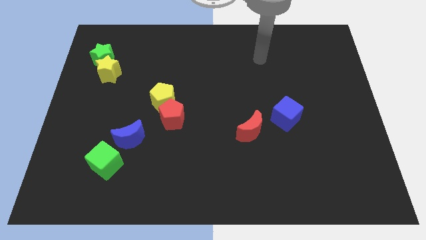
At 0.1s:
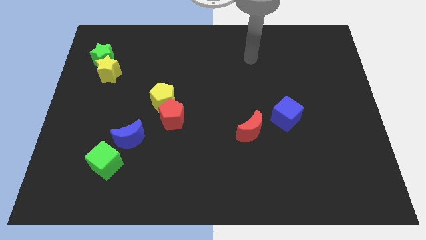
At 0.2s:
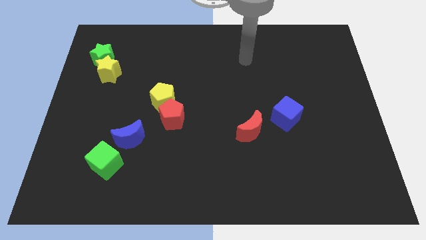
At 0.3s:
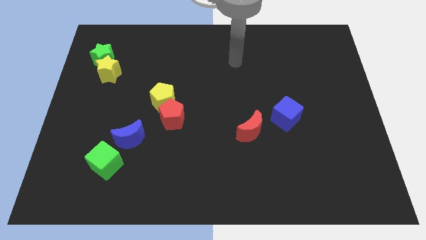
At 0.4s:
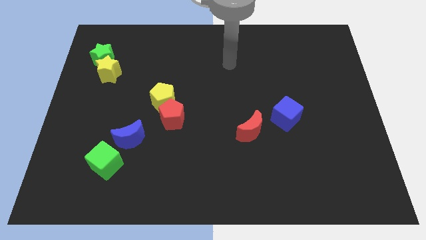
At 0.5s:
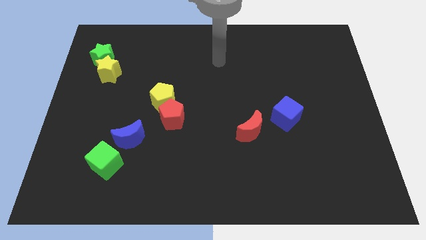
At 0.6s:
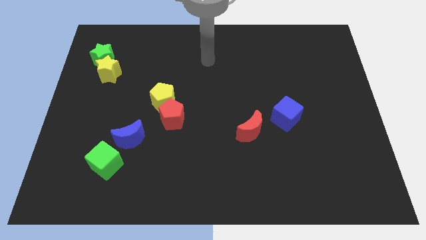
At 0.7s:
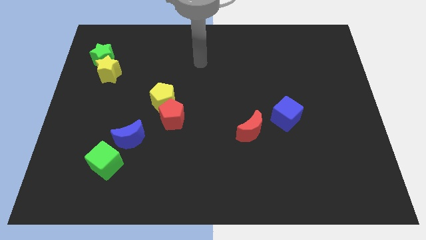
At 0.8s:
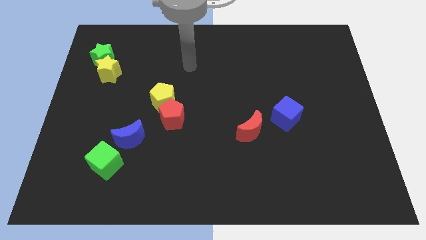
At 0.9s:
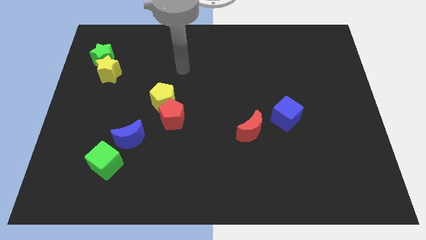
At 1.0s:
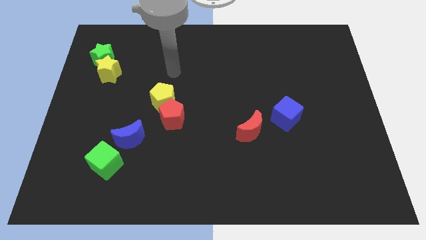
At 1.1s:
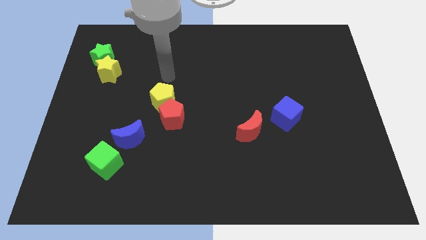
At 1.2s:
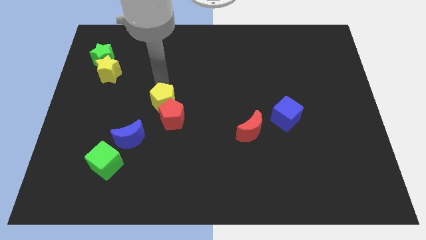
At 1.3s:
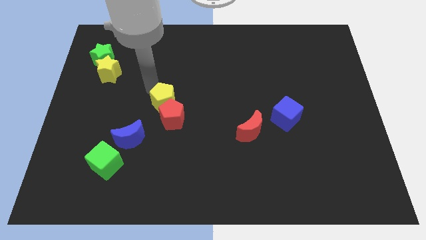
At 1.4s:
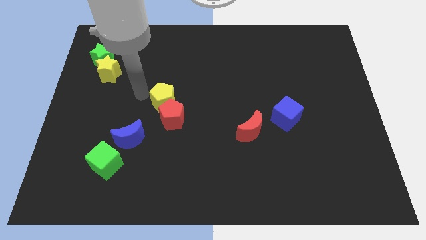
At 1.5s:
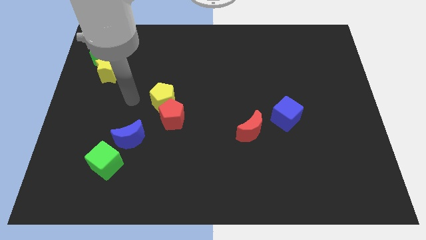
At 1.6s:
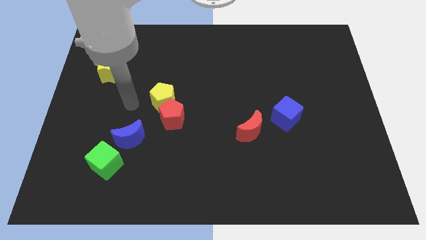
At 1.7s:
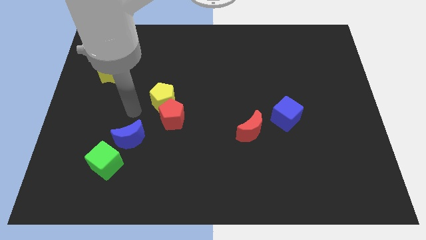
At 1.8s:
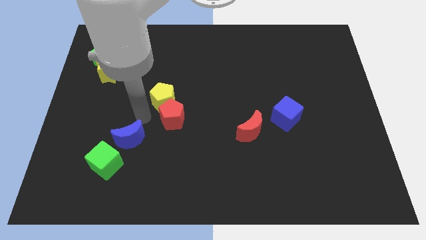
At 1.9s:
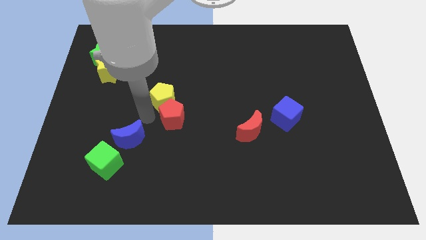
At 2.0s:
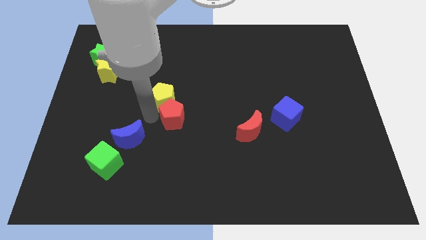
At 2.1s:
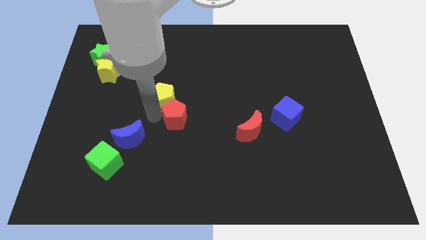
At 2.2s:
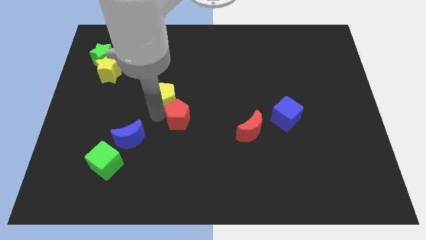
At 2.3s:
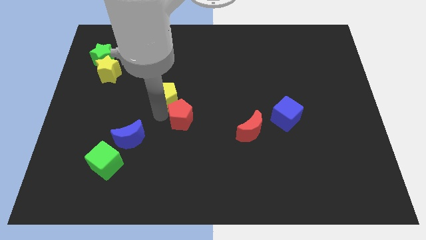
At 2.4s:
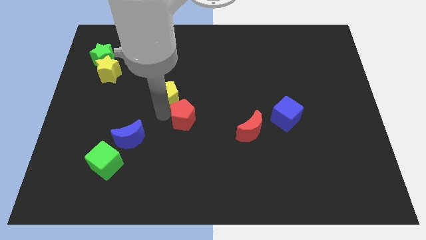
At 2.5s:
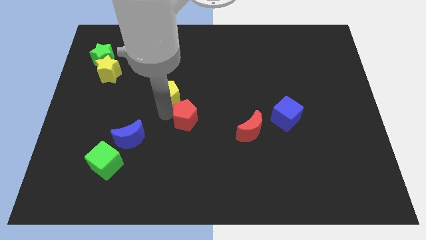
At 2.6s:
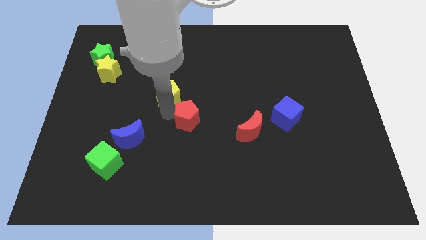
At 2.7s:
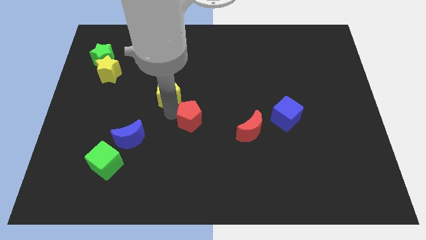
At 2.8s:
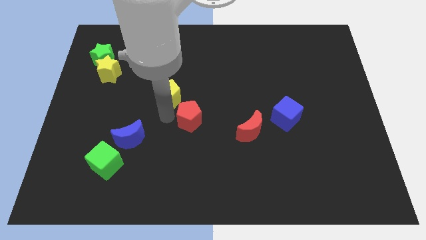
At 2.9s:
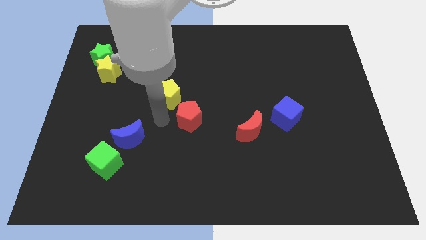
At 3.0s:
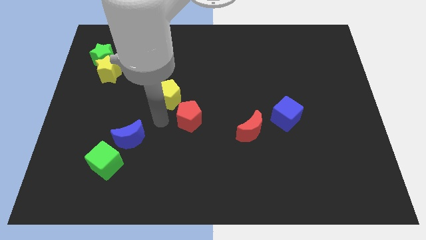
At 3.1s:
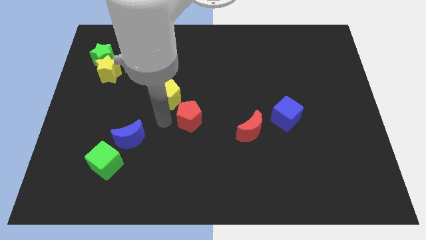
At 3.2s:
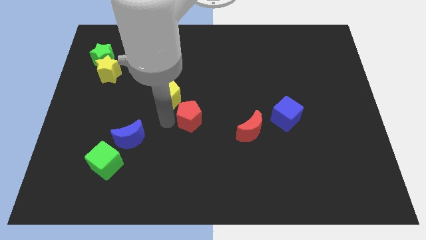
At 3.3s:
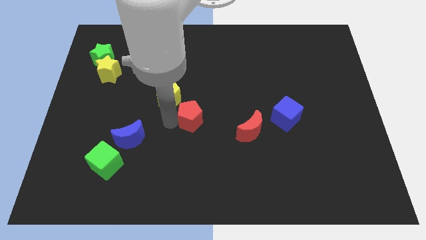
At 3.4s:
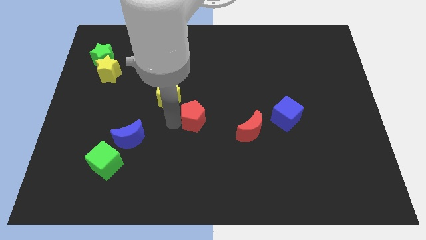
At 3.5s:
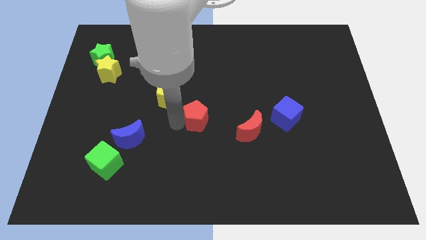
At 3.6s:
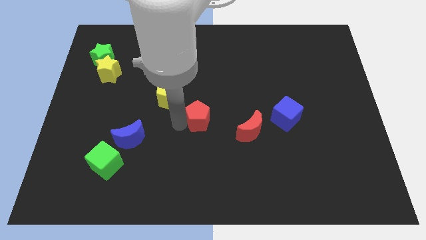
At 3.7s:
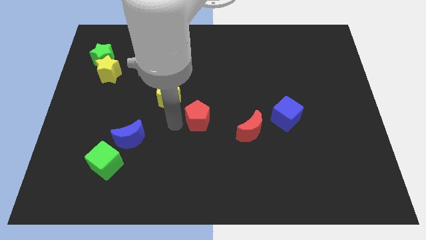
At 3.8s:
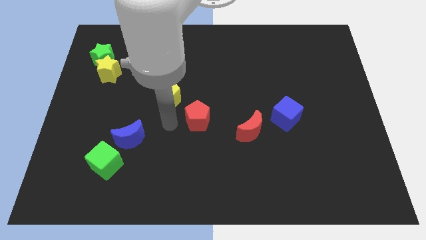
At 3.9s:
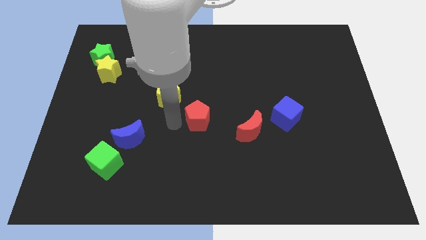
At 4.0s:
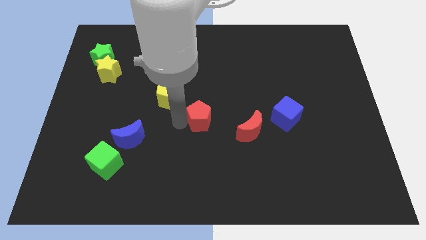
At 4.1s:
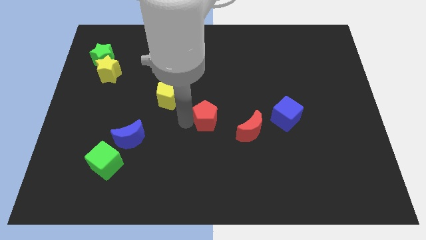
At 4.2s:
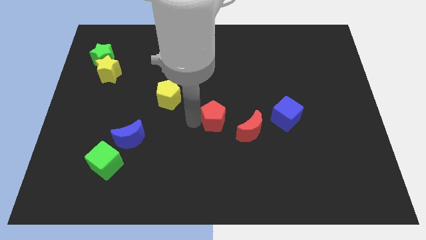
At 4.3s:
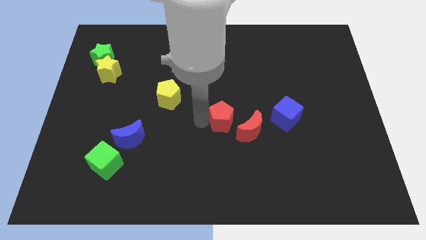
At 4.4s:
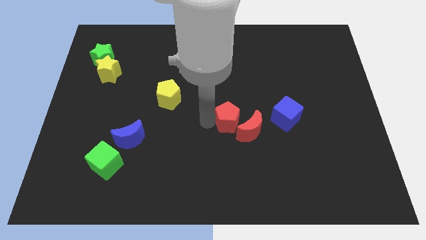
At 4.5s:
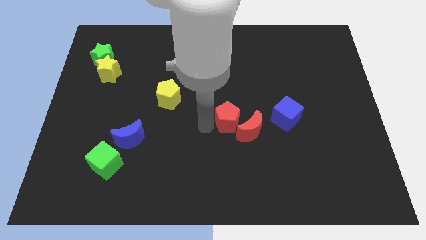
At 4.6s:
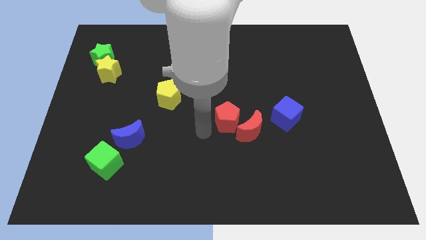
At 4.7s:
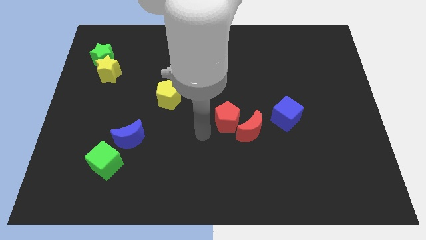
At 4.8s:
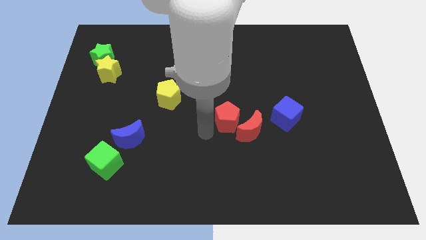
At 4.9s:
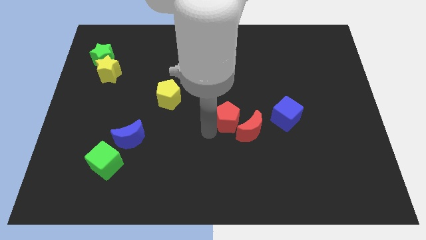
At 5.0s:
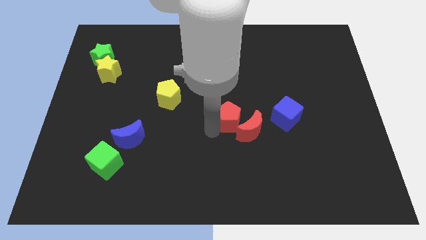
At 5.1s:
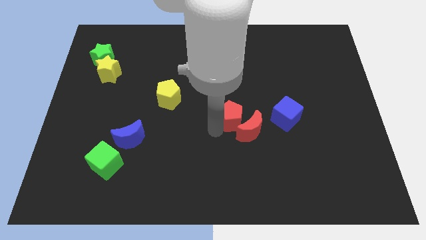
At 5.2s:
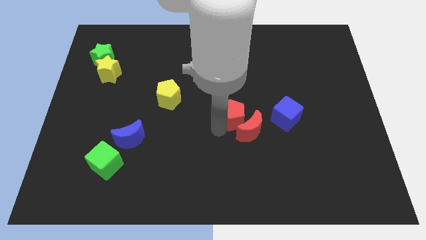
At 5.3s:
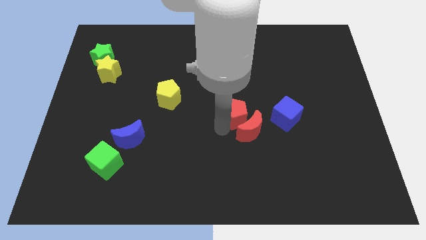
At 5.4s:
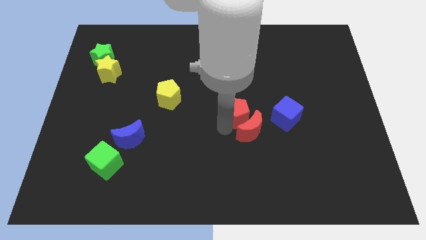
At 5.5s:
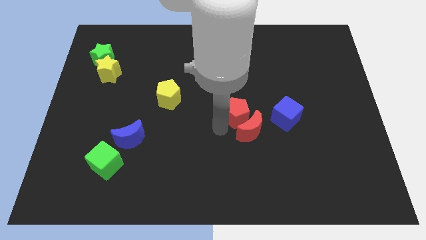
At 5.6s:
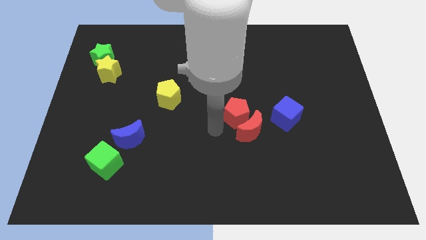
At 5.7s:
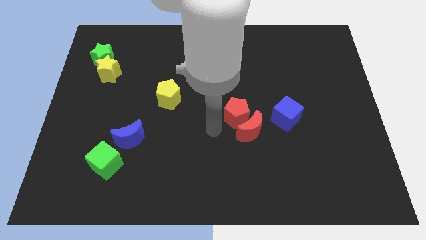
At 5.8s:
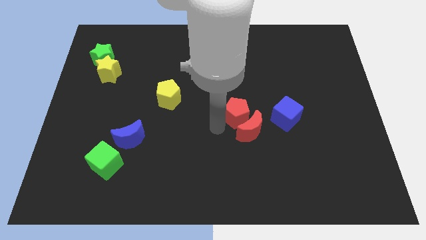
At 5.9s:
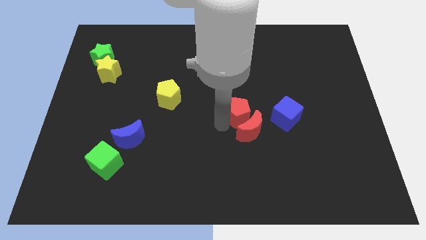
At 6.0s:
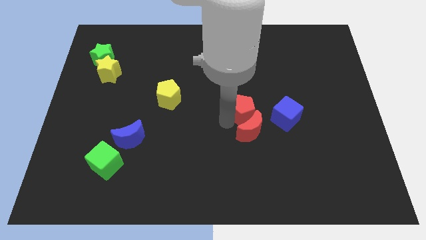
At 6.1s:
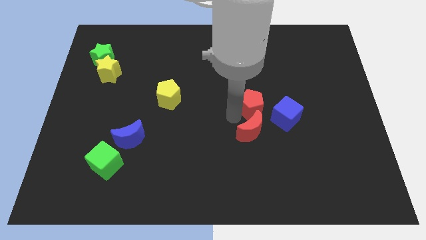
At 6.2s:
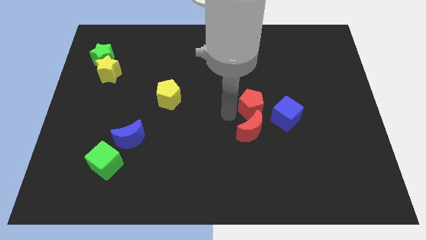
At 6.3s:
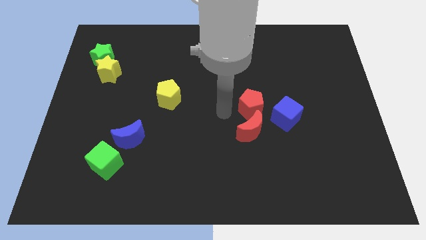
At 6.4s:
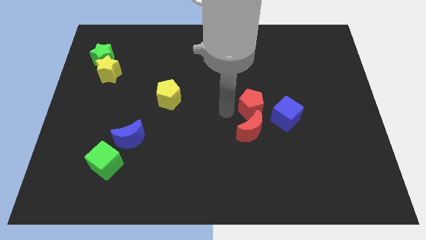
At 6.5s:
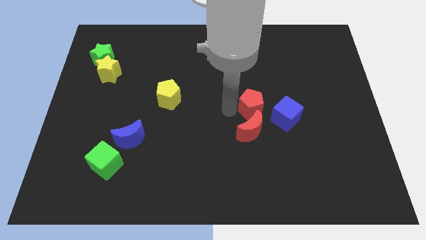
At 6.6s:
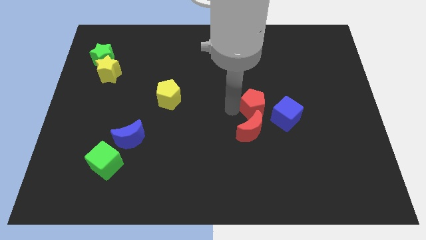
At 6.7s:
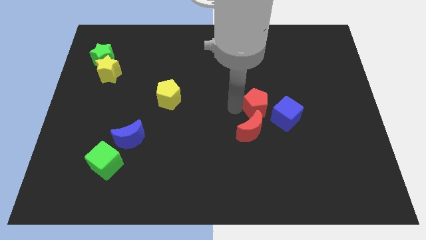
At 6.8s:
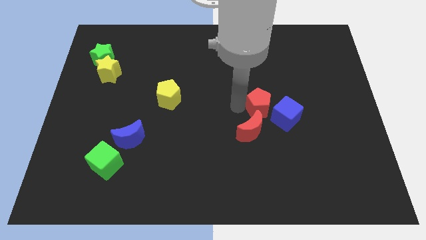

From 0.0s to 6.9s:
move the red pentagon to the right

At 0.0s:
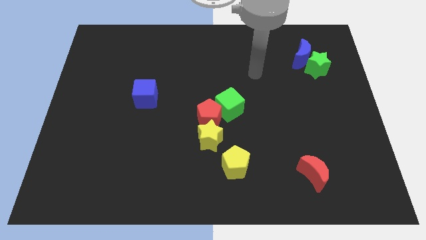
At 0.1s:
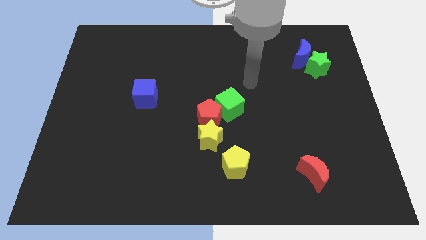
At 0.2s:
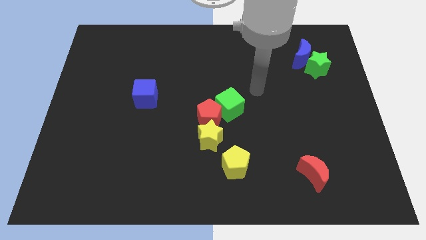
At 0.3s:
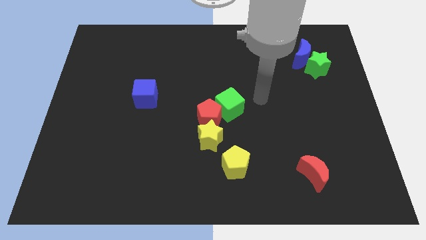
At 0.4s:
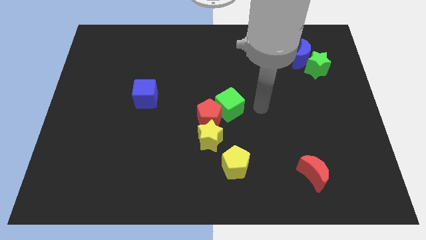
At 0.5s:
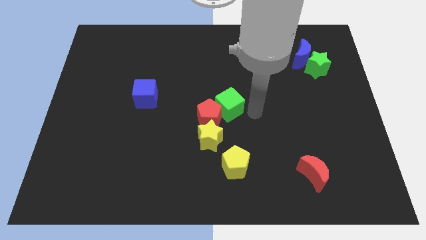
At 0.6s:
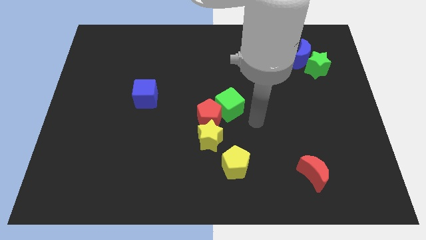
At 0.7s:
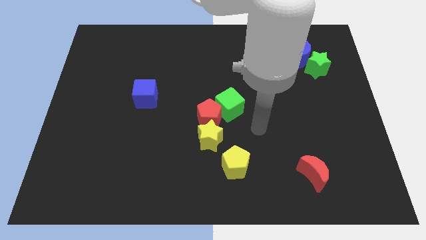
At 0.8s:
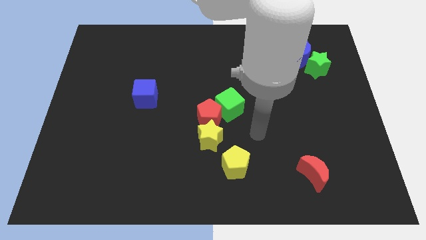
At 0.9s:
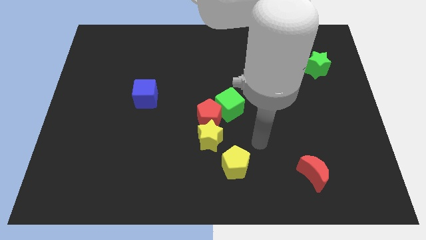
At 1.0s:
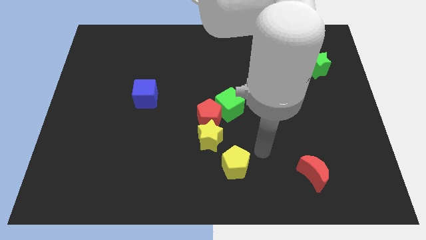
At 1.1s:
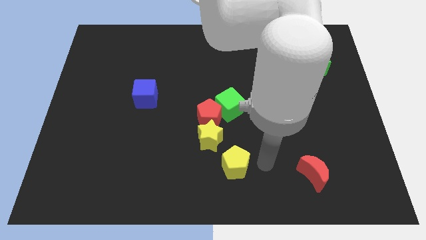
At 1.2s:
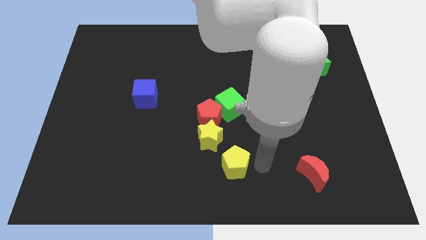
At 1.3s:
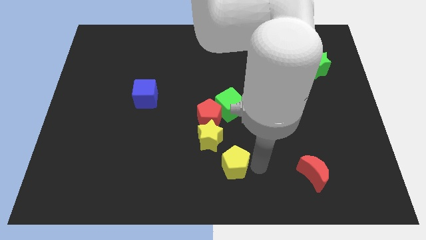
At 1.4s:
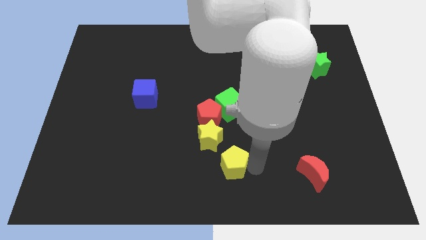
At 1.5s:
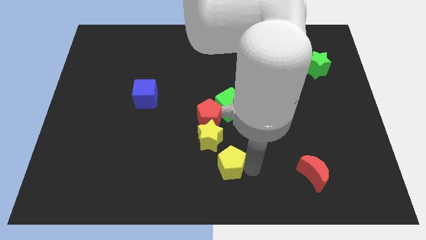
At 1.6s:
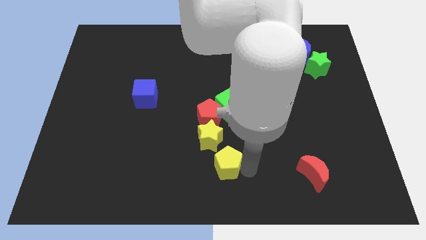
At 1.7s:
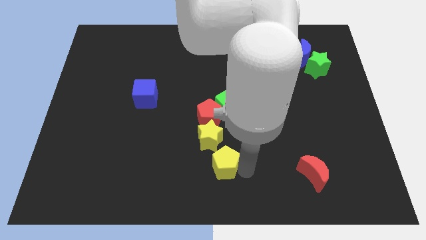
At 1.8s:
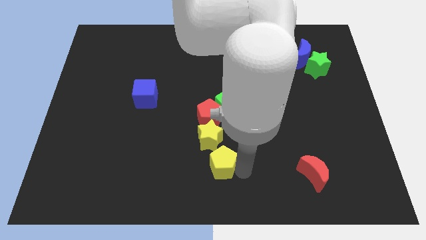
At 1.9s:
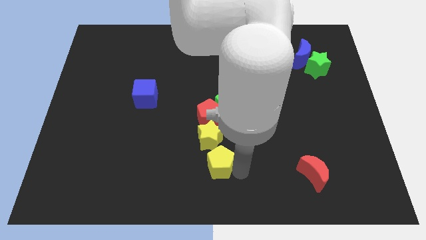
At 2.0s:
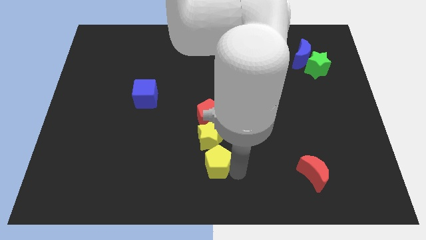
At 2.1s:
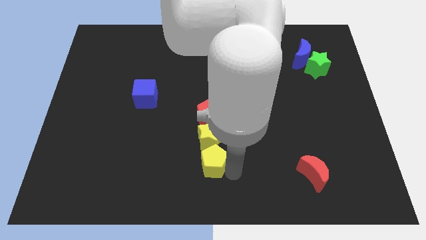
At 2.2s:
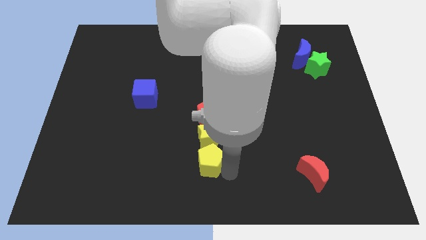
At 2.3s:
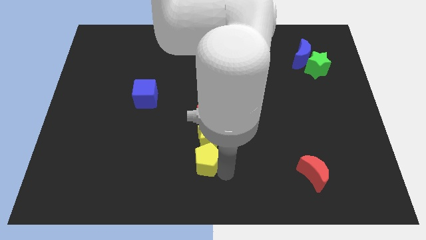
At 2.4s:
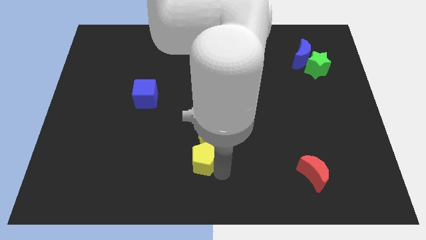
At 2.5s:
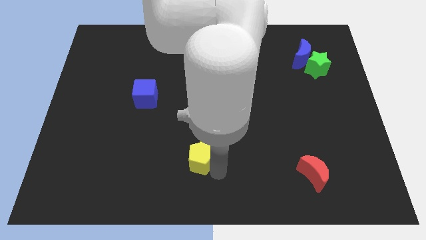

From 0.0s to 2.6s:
move the yellow pentagon left somewhat
